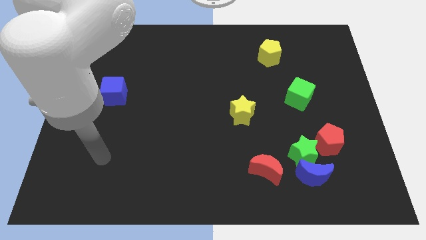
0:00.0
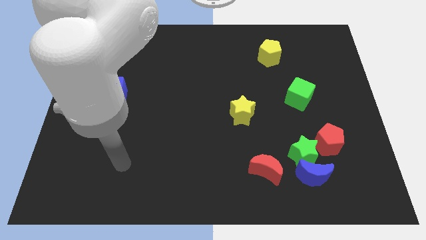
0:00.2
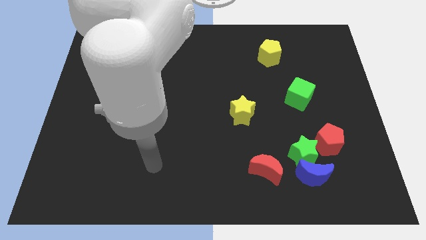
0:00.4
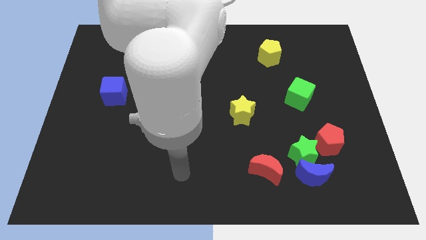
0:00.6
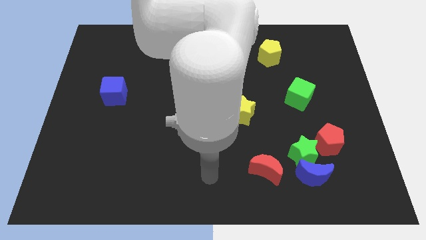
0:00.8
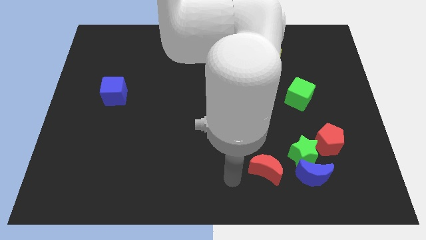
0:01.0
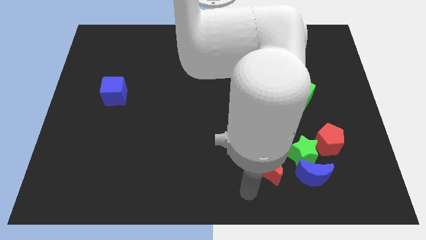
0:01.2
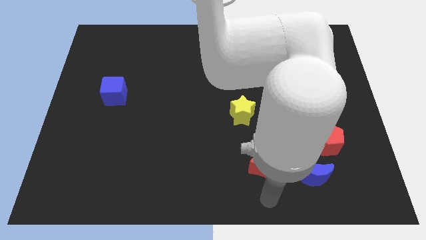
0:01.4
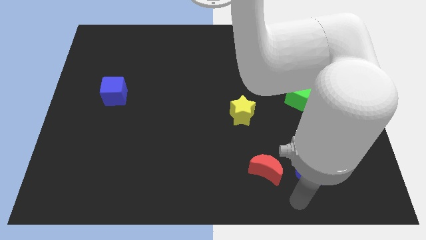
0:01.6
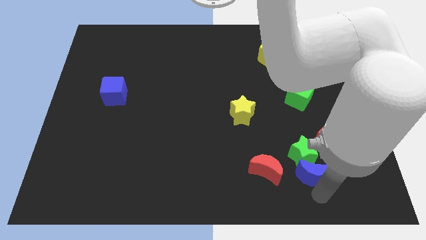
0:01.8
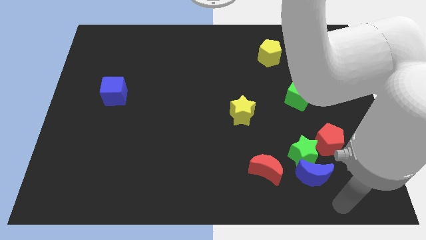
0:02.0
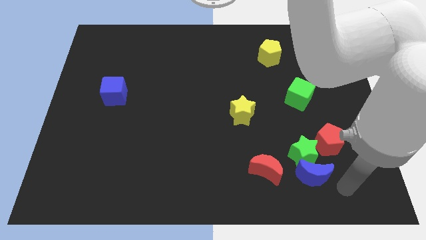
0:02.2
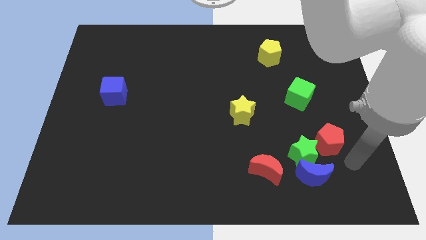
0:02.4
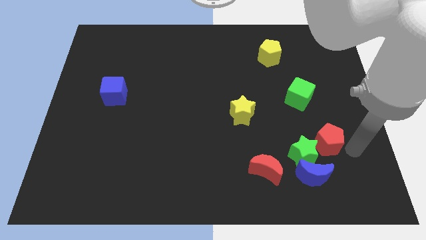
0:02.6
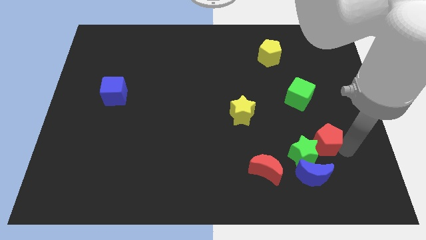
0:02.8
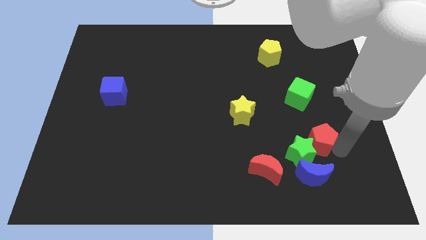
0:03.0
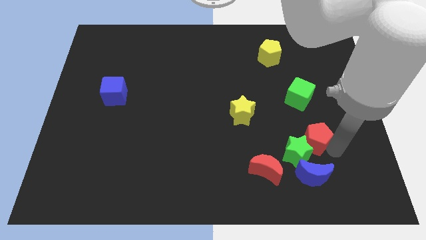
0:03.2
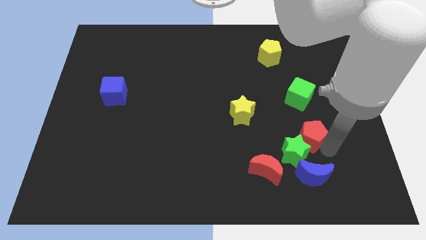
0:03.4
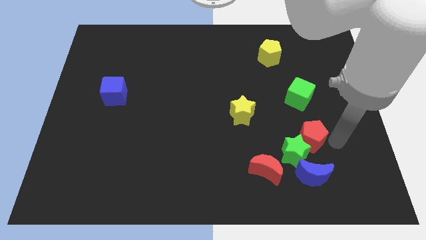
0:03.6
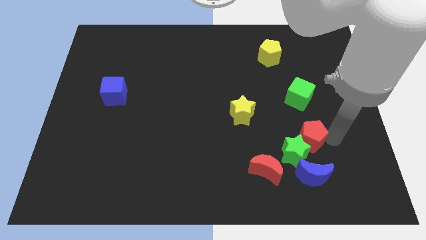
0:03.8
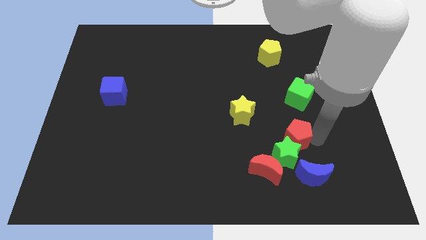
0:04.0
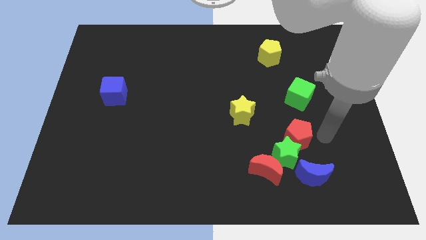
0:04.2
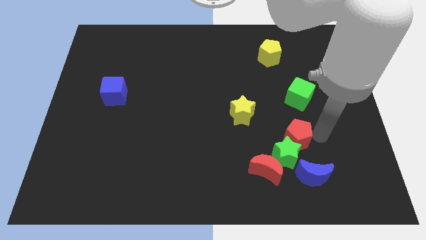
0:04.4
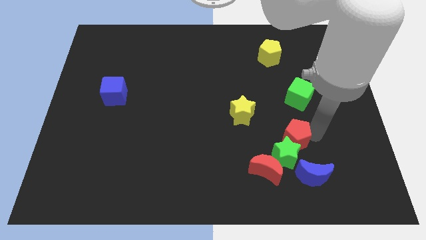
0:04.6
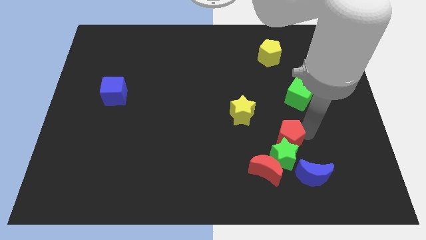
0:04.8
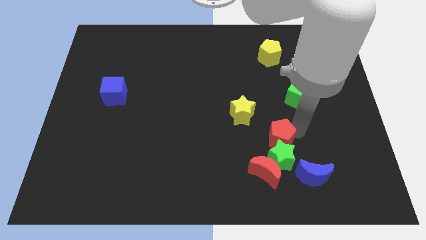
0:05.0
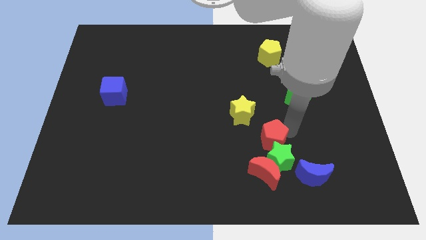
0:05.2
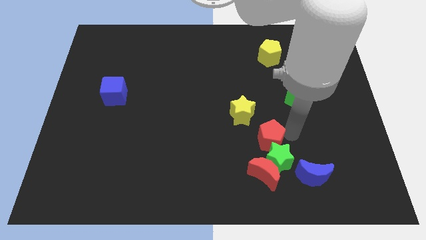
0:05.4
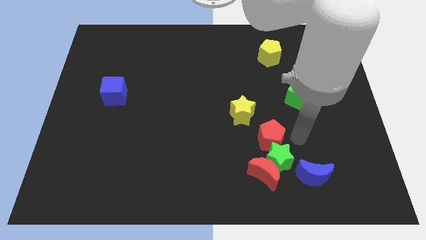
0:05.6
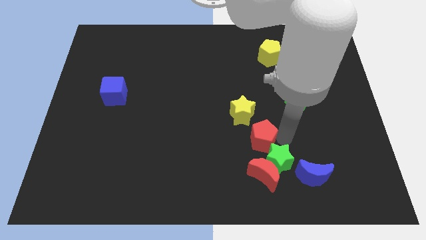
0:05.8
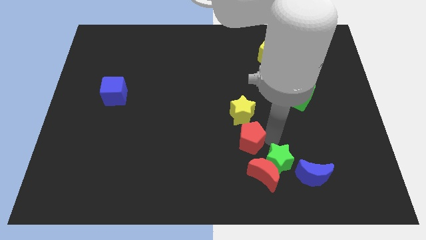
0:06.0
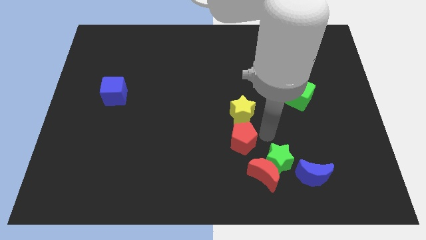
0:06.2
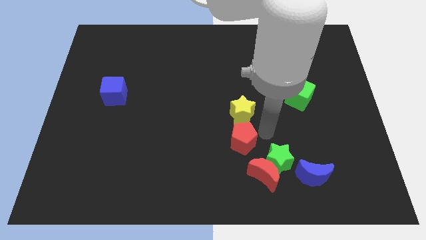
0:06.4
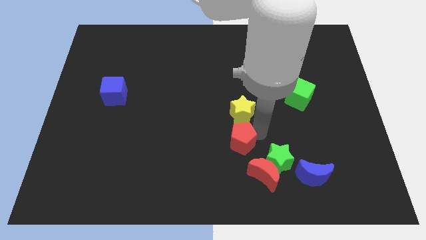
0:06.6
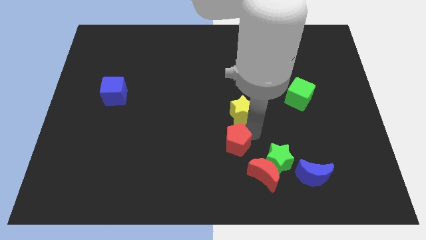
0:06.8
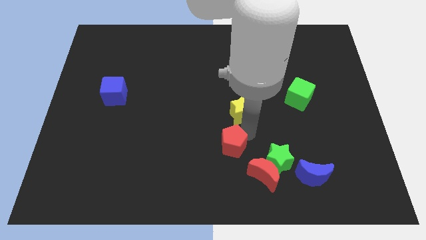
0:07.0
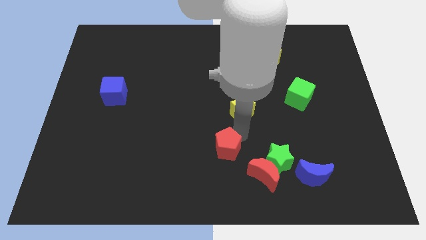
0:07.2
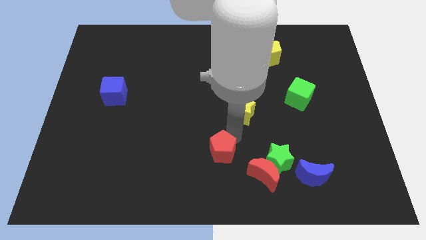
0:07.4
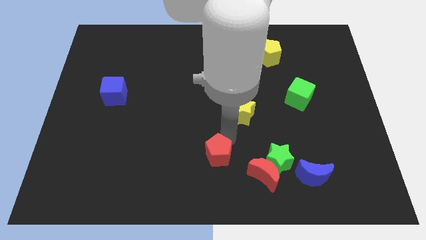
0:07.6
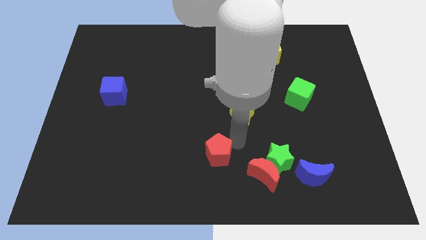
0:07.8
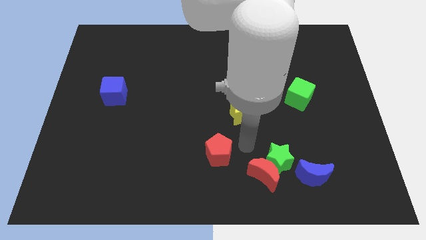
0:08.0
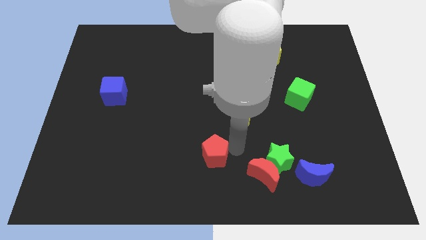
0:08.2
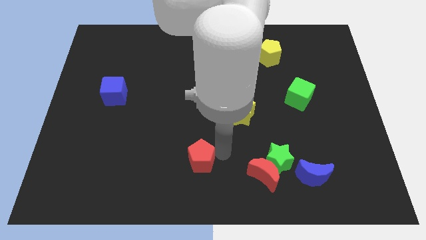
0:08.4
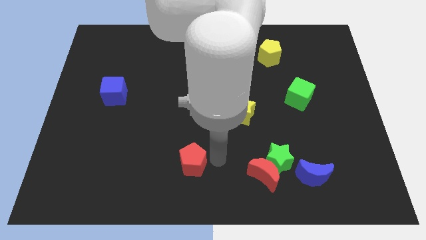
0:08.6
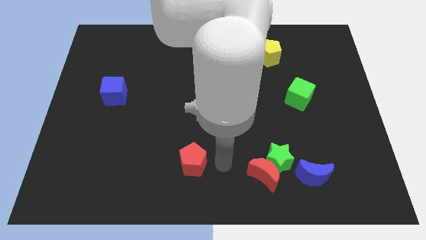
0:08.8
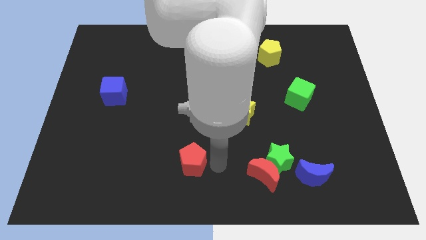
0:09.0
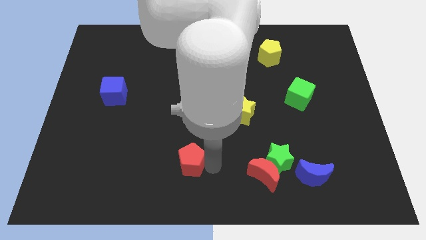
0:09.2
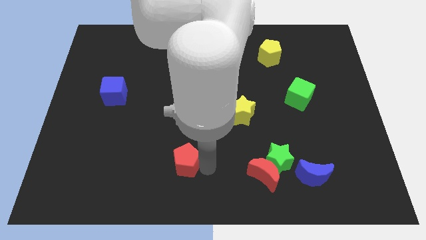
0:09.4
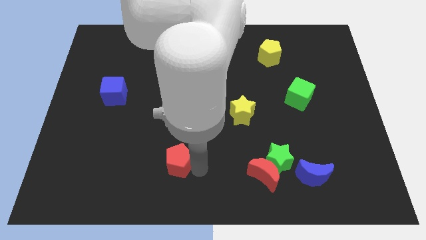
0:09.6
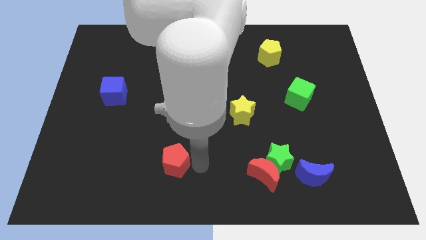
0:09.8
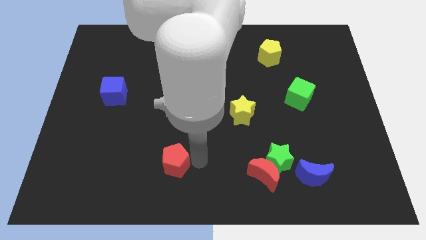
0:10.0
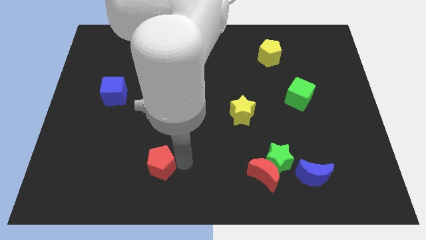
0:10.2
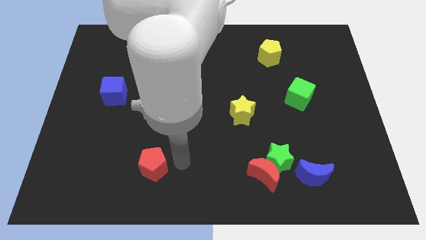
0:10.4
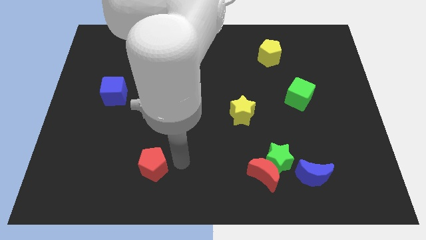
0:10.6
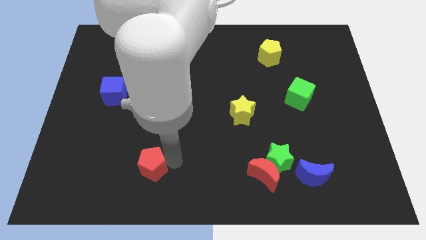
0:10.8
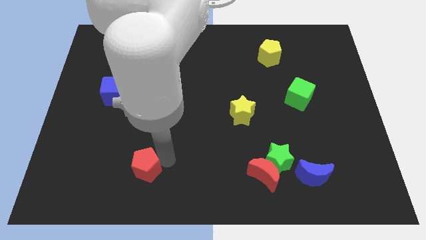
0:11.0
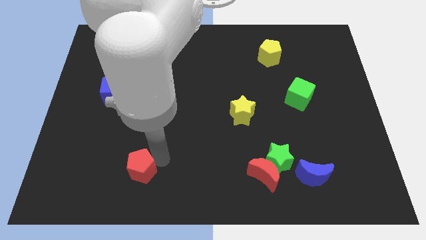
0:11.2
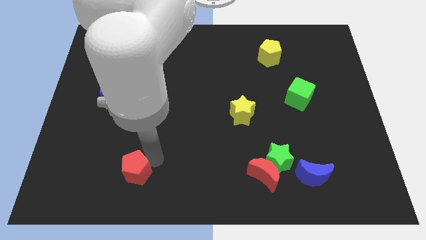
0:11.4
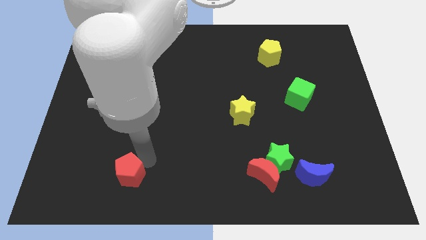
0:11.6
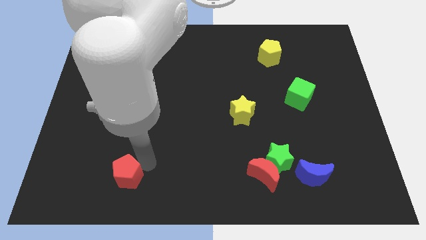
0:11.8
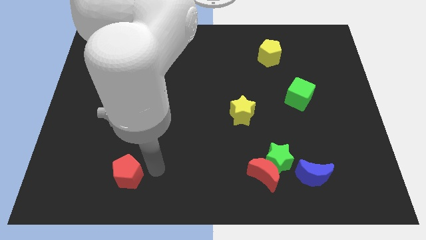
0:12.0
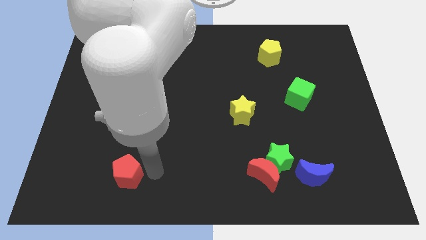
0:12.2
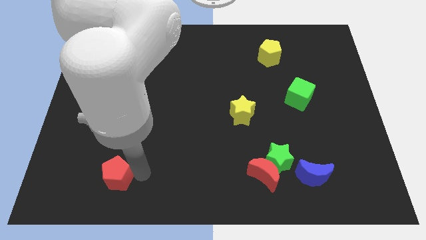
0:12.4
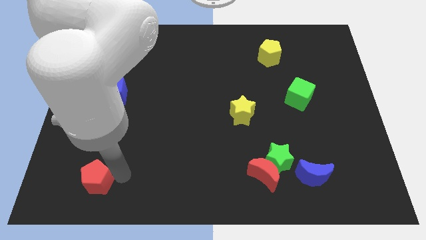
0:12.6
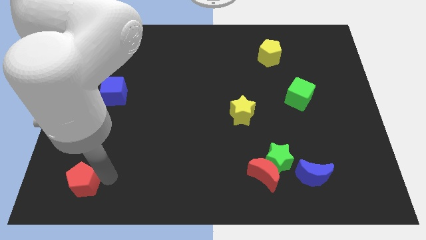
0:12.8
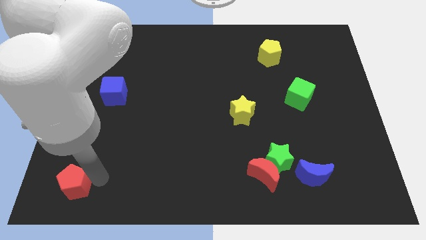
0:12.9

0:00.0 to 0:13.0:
put the red pentagon to the bottom left

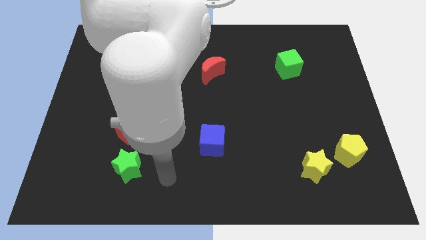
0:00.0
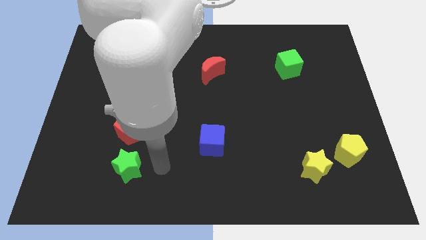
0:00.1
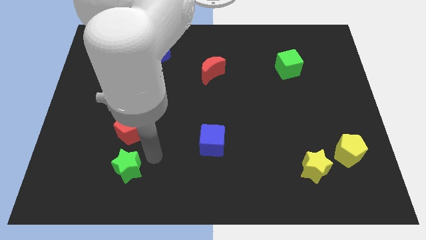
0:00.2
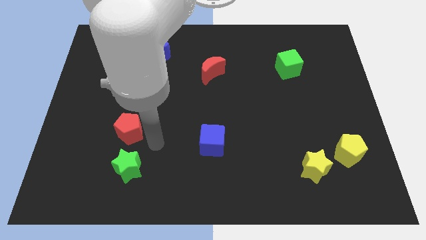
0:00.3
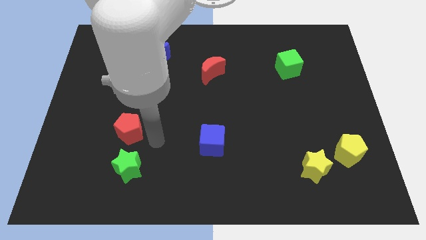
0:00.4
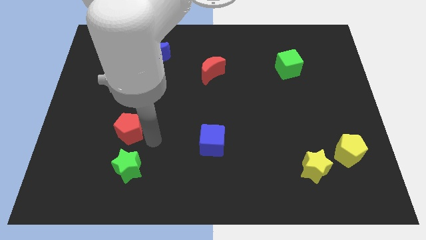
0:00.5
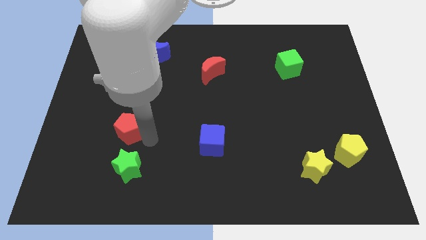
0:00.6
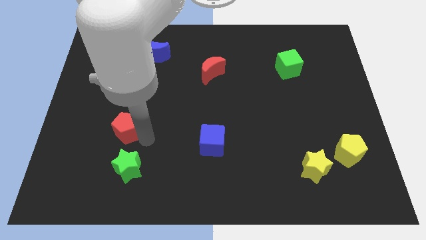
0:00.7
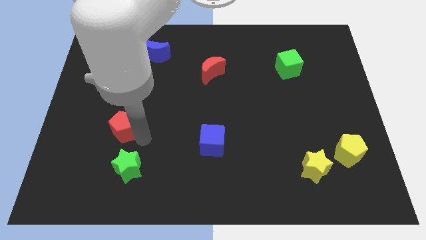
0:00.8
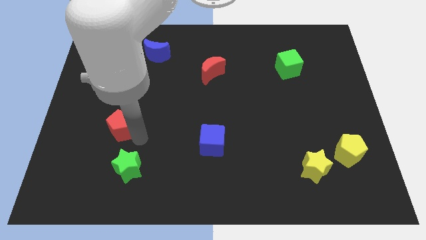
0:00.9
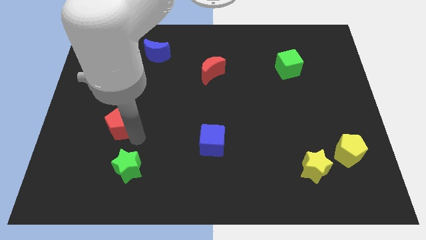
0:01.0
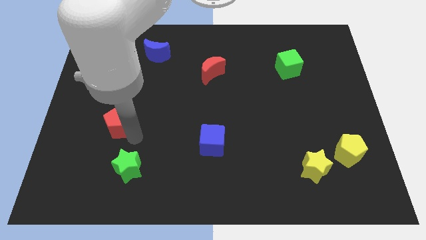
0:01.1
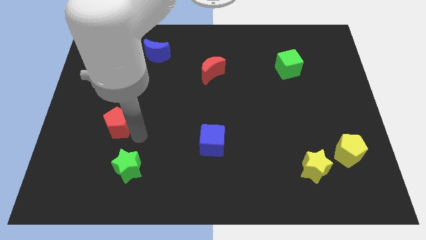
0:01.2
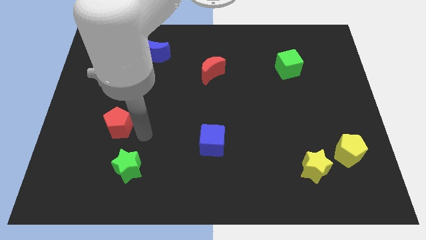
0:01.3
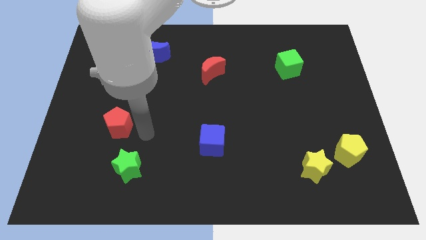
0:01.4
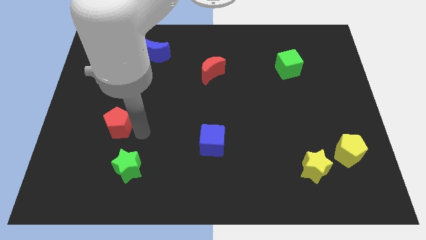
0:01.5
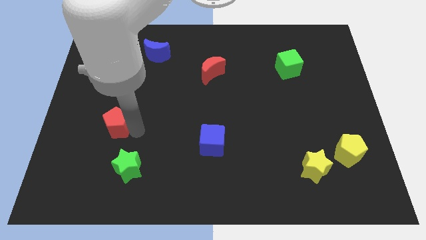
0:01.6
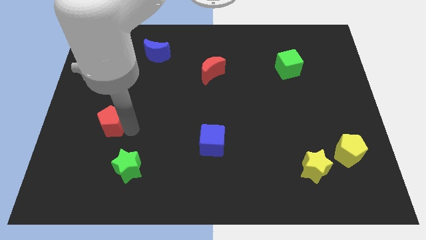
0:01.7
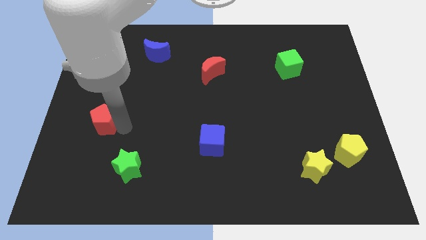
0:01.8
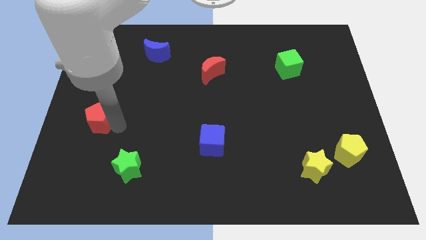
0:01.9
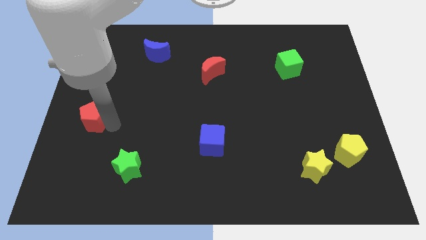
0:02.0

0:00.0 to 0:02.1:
push the red pentagon to the center left
